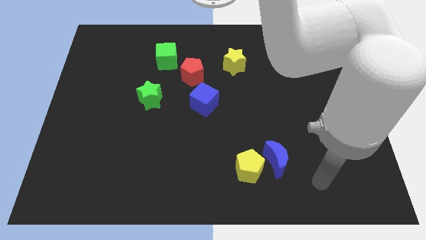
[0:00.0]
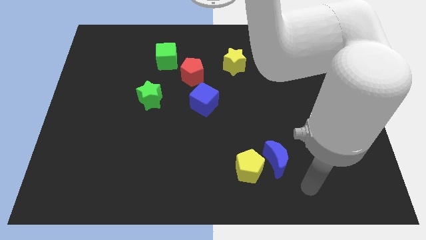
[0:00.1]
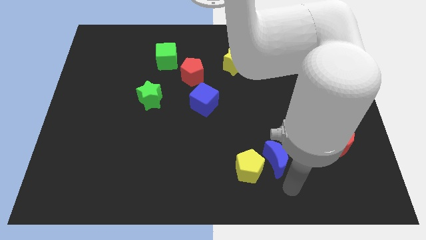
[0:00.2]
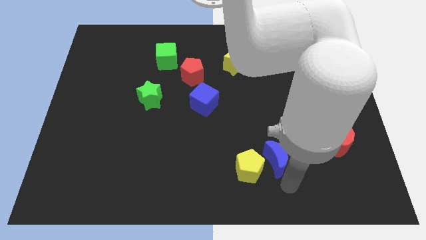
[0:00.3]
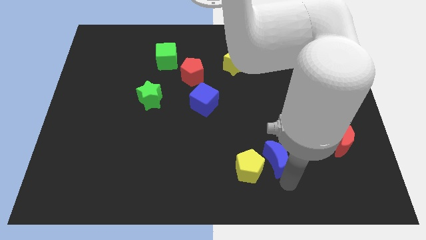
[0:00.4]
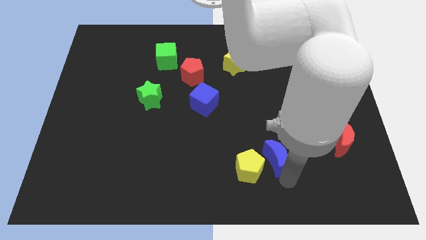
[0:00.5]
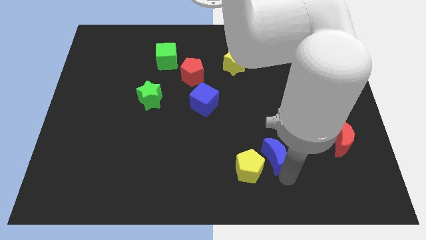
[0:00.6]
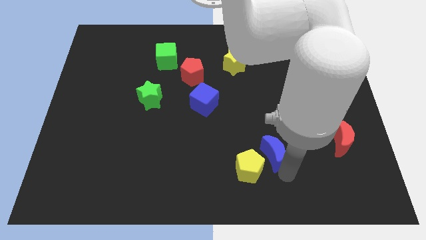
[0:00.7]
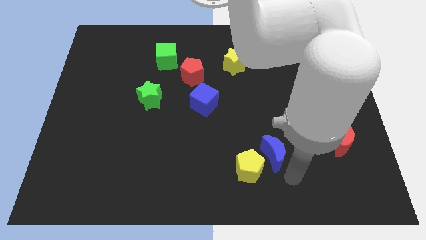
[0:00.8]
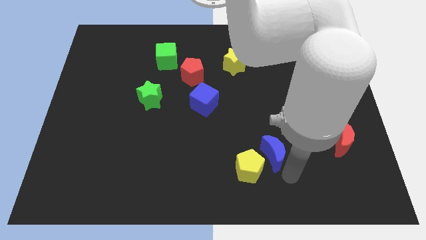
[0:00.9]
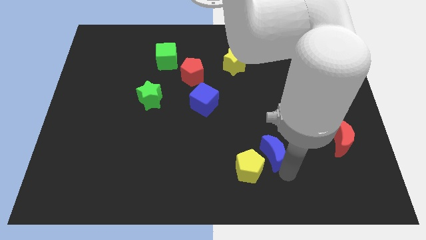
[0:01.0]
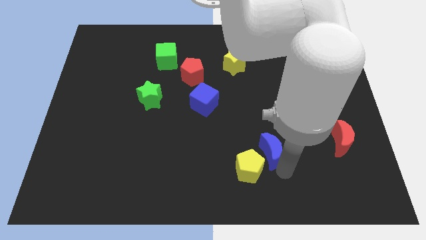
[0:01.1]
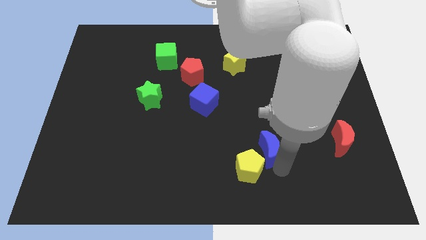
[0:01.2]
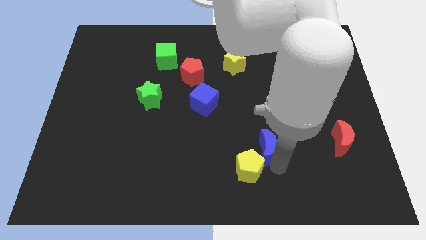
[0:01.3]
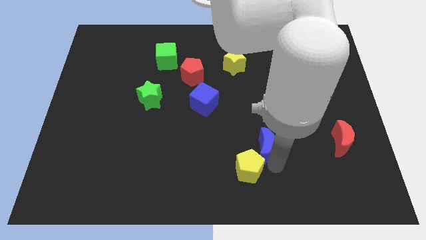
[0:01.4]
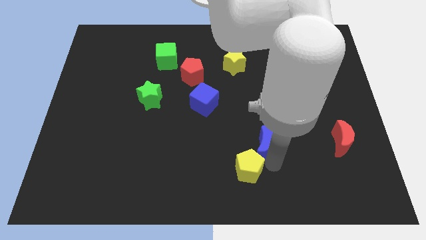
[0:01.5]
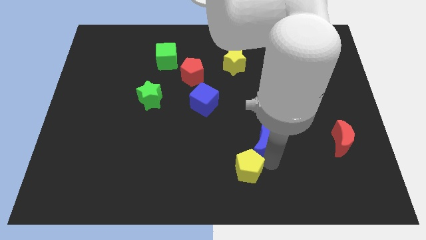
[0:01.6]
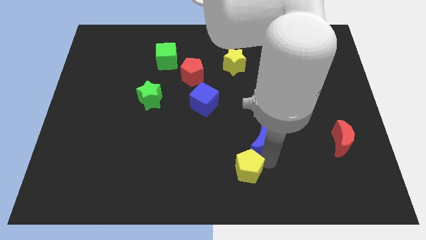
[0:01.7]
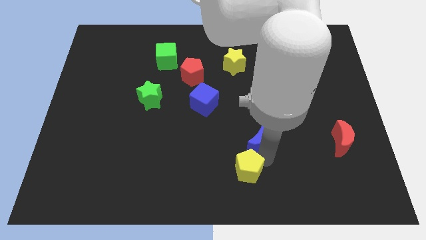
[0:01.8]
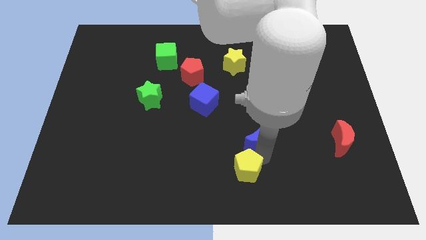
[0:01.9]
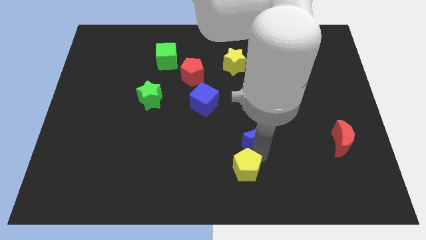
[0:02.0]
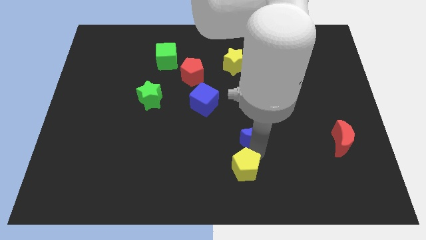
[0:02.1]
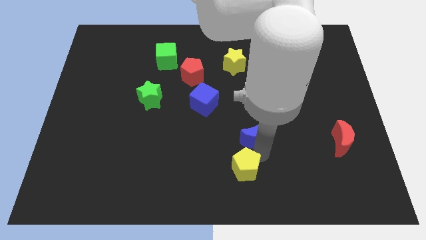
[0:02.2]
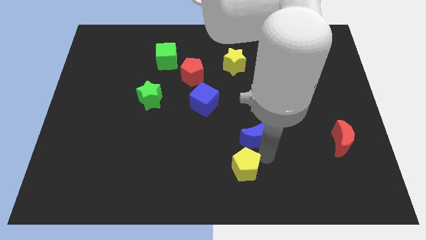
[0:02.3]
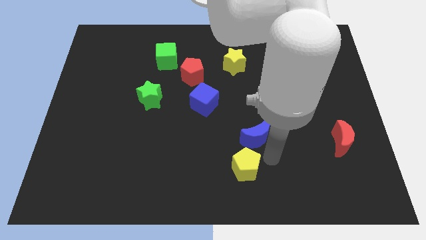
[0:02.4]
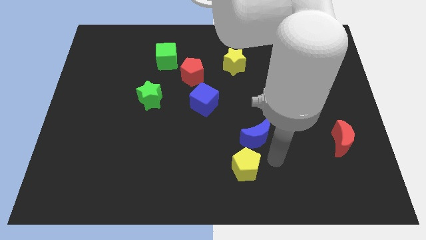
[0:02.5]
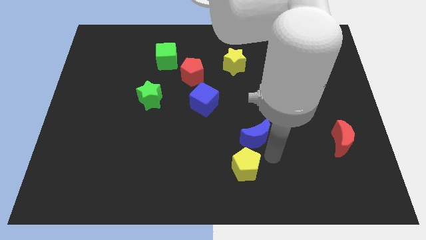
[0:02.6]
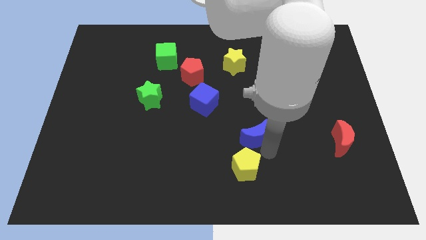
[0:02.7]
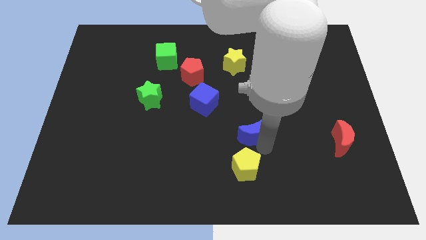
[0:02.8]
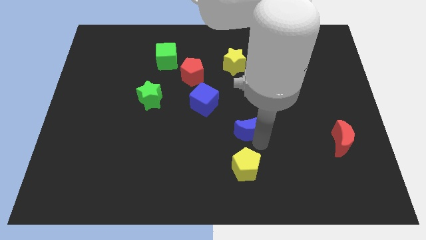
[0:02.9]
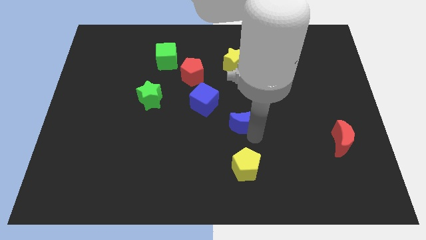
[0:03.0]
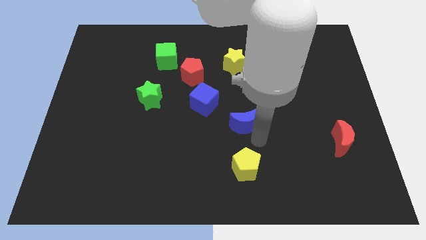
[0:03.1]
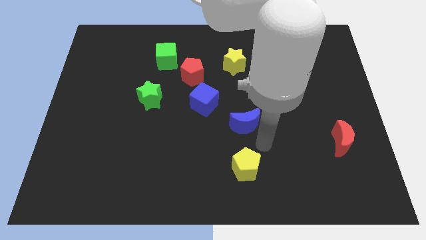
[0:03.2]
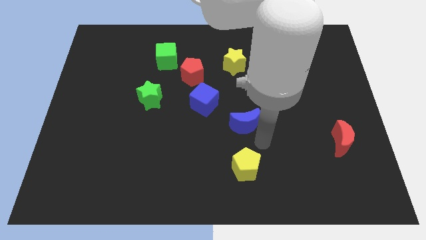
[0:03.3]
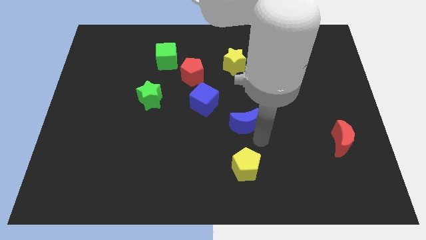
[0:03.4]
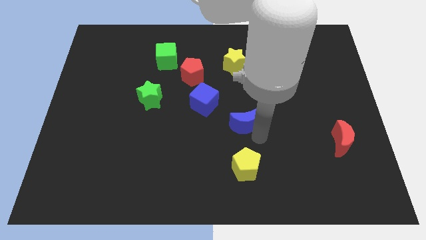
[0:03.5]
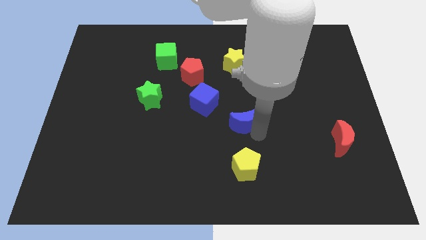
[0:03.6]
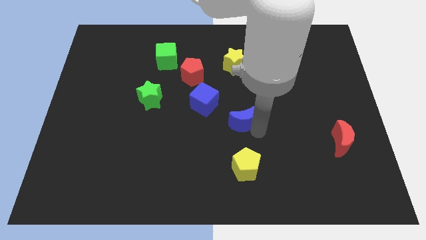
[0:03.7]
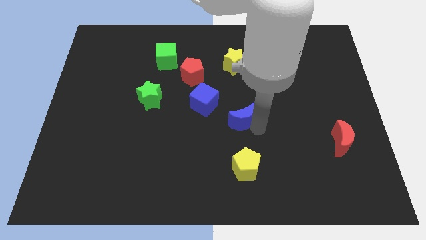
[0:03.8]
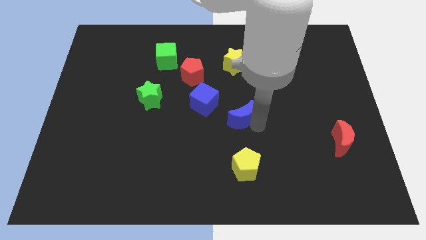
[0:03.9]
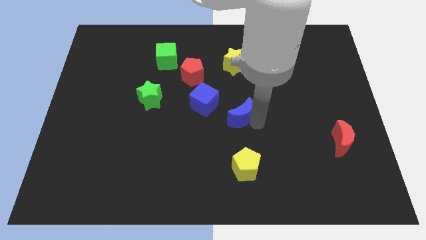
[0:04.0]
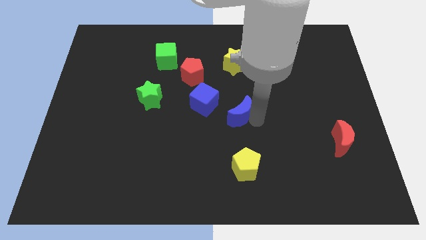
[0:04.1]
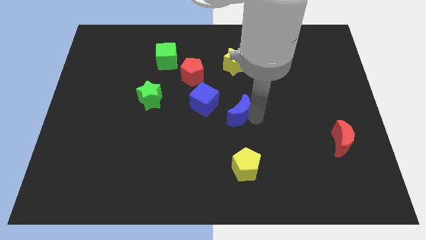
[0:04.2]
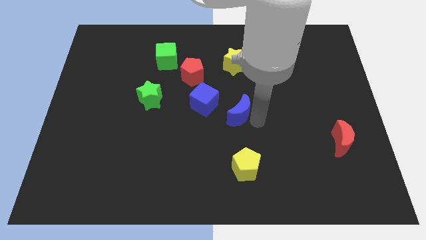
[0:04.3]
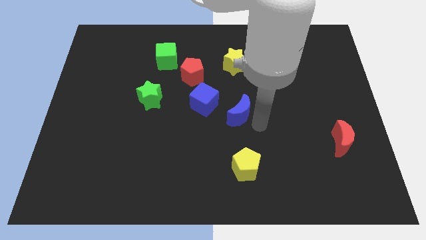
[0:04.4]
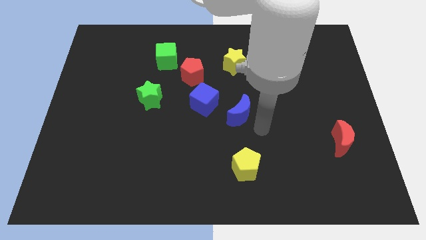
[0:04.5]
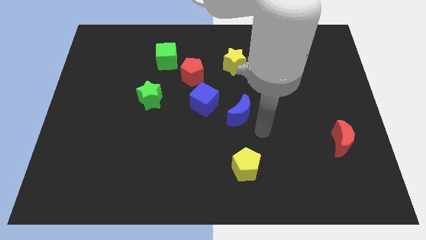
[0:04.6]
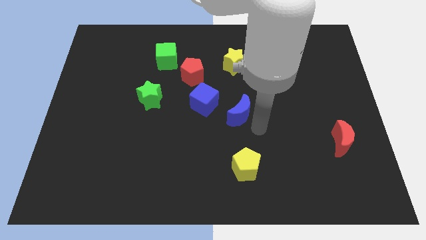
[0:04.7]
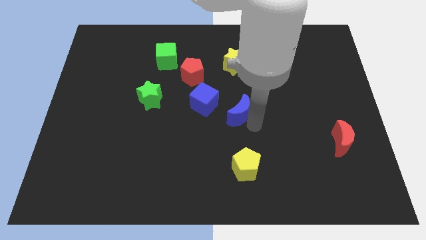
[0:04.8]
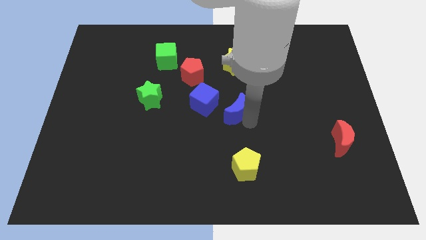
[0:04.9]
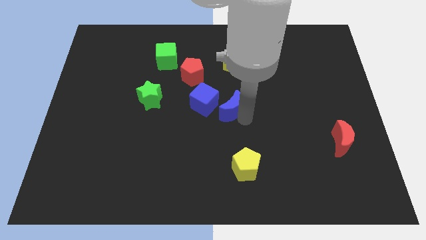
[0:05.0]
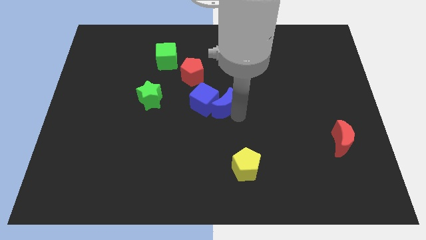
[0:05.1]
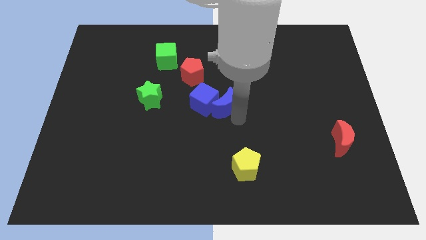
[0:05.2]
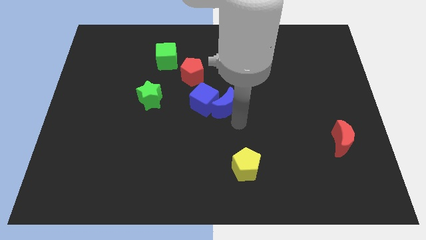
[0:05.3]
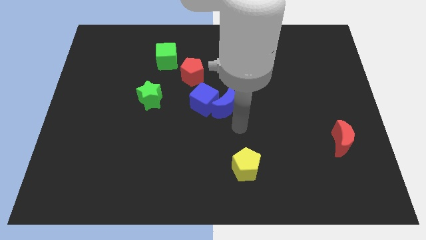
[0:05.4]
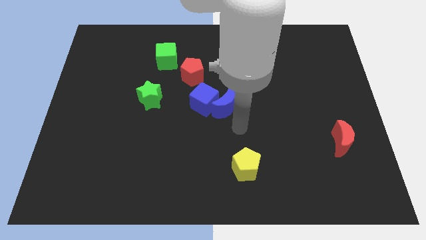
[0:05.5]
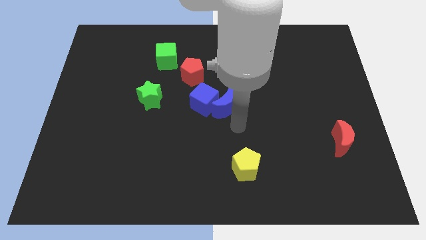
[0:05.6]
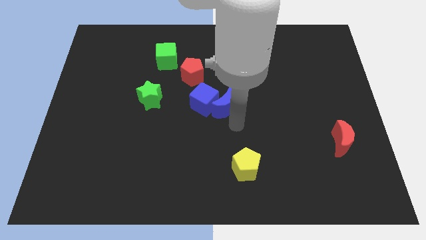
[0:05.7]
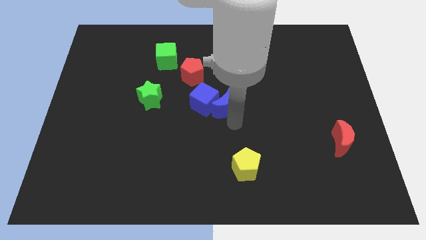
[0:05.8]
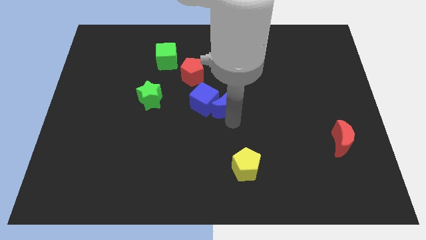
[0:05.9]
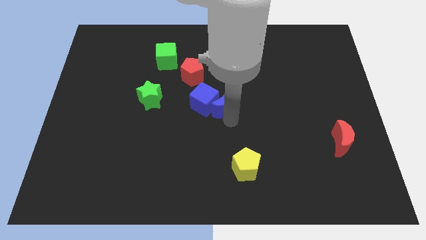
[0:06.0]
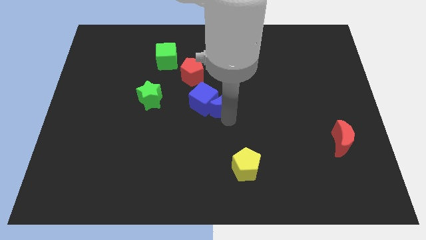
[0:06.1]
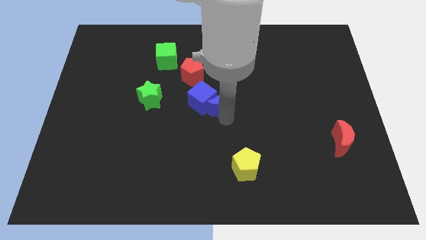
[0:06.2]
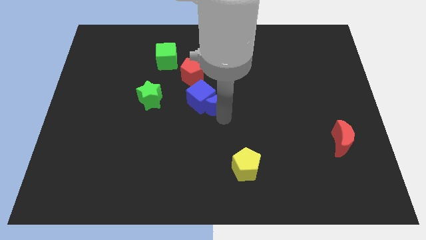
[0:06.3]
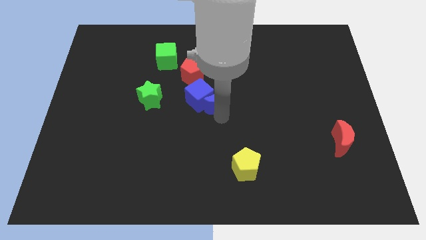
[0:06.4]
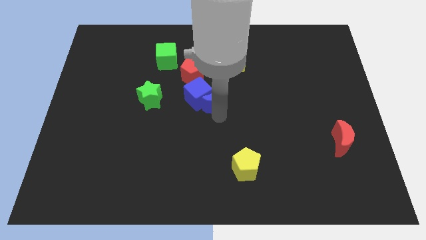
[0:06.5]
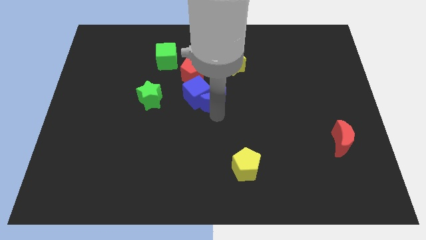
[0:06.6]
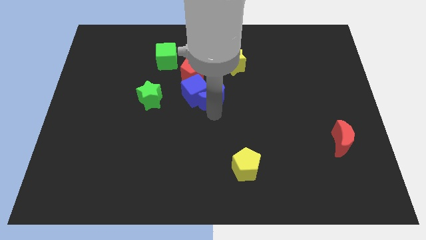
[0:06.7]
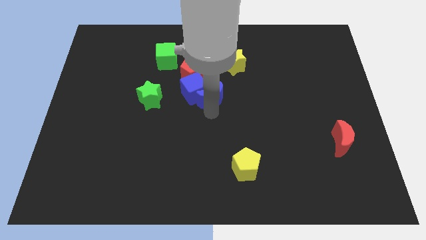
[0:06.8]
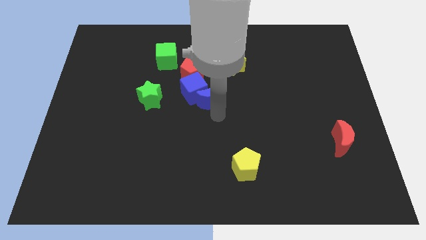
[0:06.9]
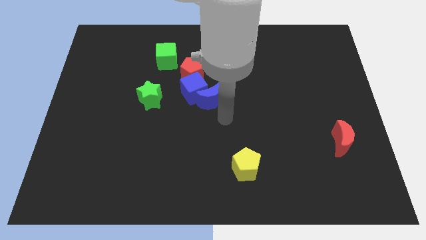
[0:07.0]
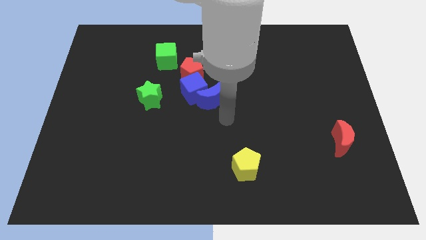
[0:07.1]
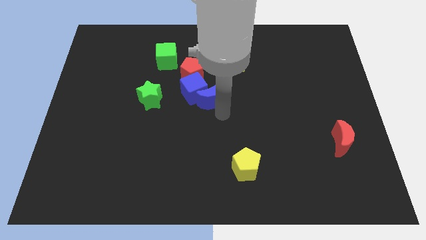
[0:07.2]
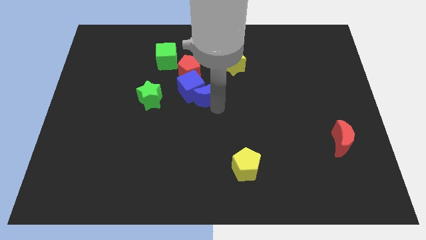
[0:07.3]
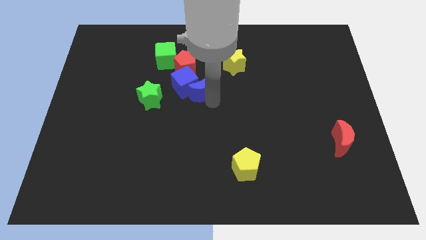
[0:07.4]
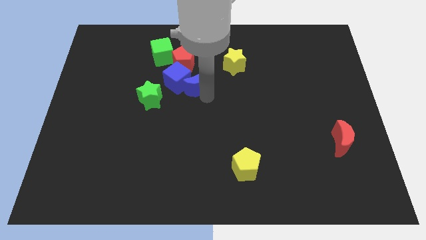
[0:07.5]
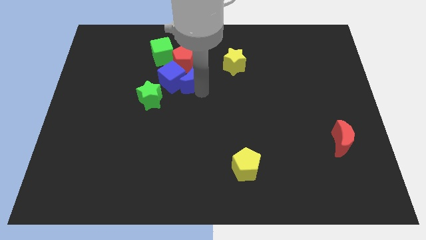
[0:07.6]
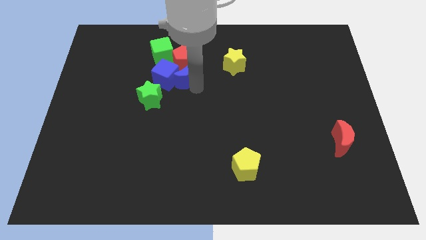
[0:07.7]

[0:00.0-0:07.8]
push the blue moon towards the red pentagon
